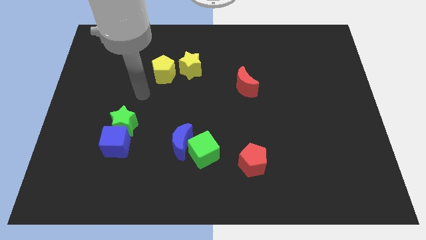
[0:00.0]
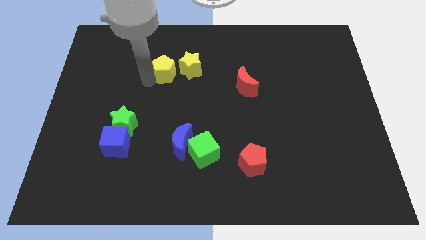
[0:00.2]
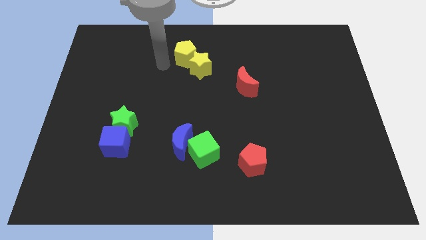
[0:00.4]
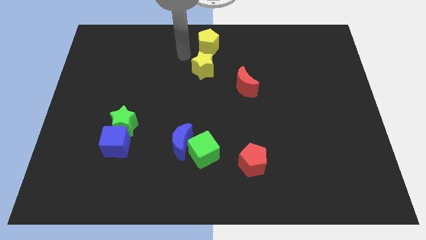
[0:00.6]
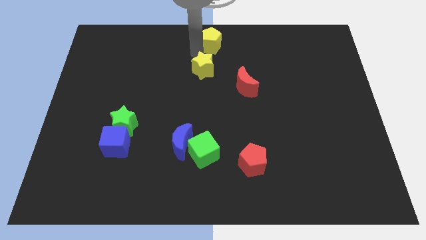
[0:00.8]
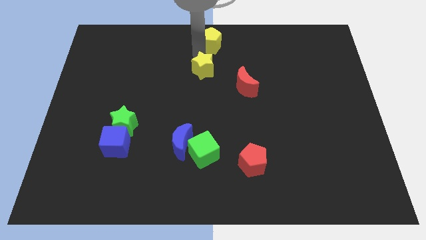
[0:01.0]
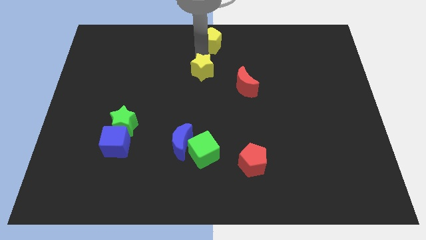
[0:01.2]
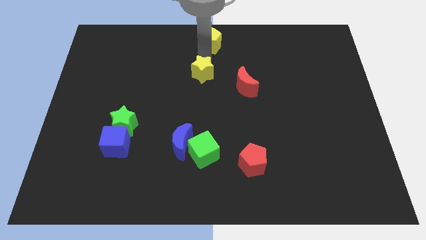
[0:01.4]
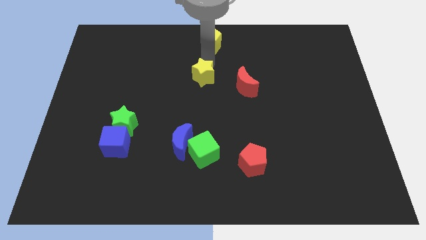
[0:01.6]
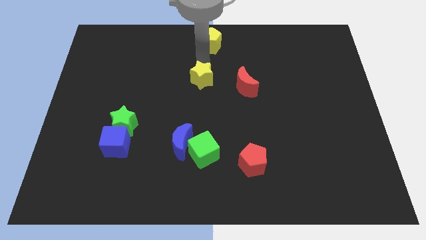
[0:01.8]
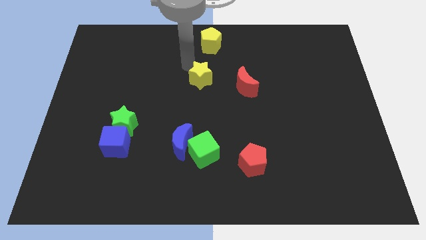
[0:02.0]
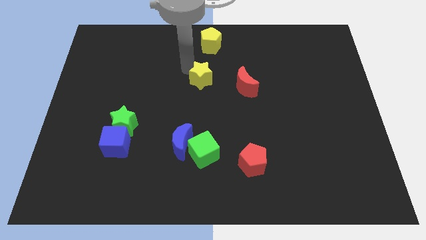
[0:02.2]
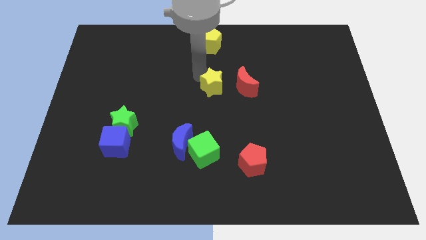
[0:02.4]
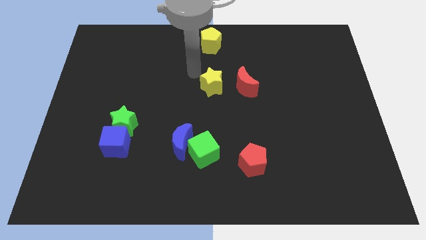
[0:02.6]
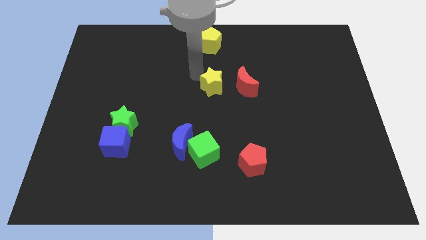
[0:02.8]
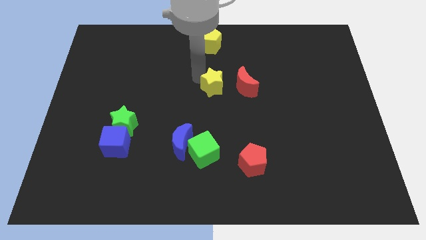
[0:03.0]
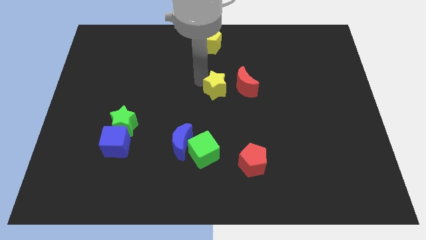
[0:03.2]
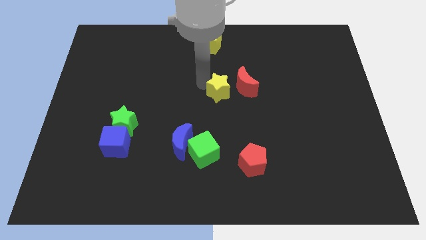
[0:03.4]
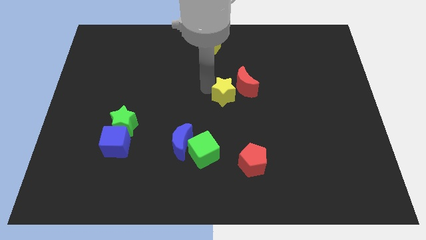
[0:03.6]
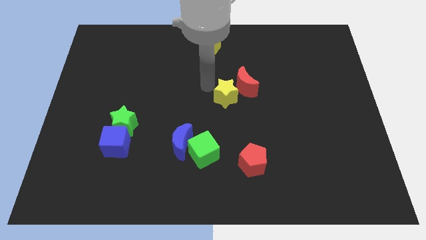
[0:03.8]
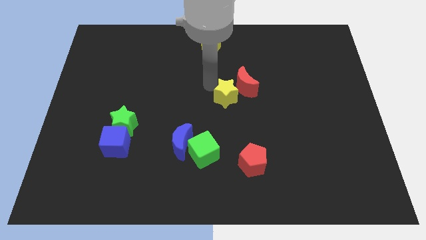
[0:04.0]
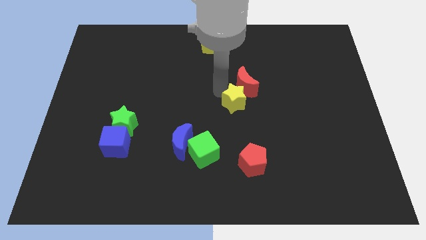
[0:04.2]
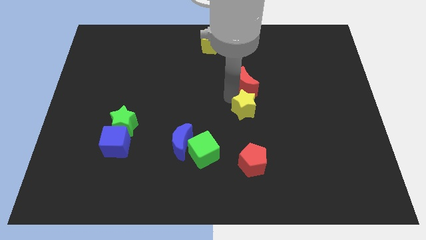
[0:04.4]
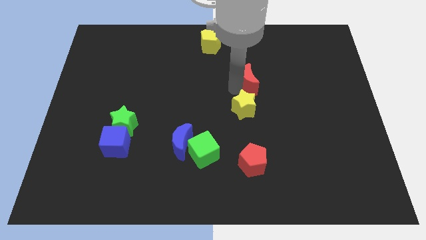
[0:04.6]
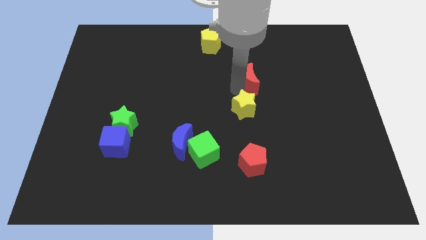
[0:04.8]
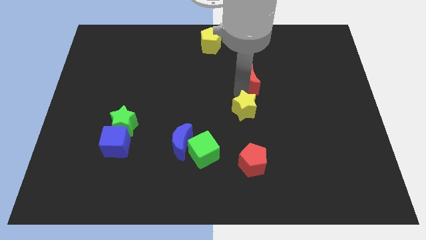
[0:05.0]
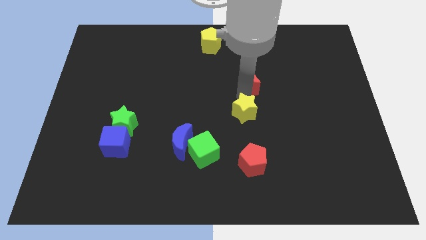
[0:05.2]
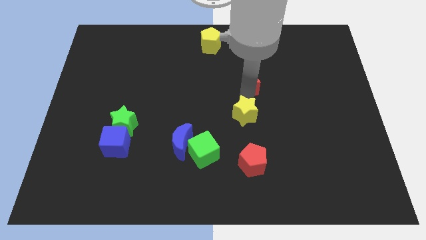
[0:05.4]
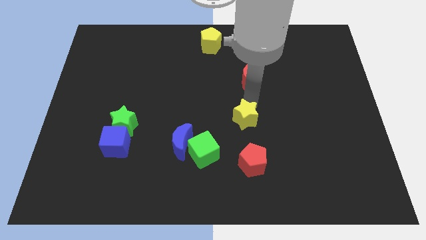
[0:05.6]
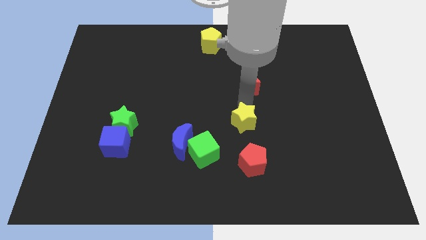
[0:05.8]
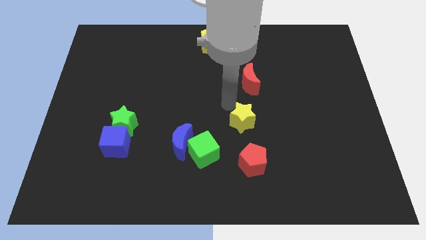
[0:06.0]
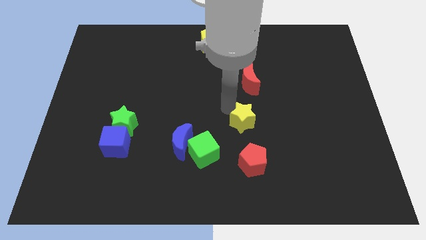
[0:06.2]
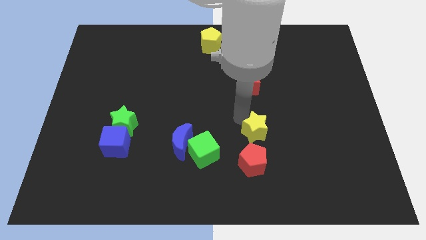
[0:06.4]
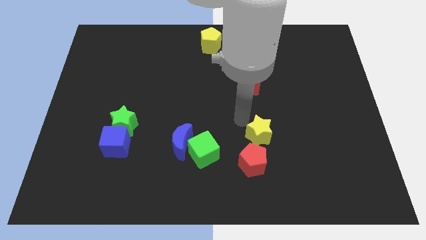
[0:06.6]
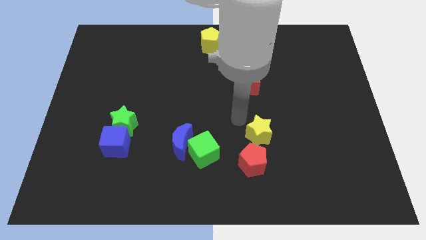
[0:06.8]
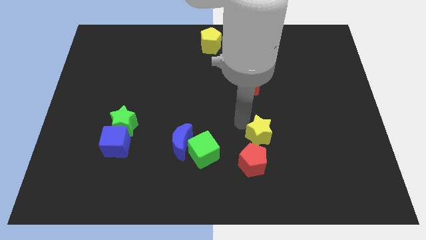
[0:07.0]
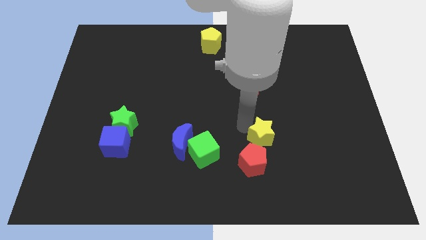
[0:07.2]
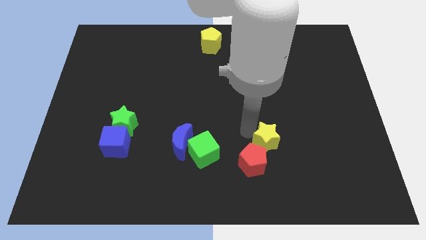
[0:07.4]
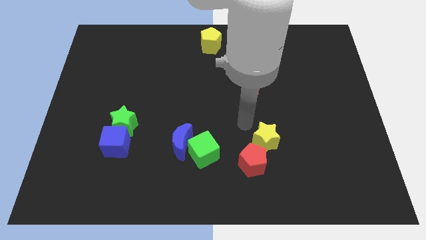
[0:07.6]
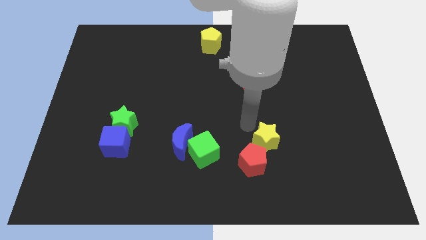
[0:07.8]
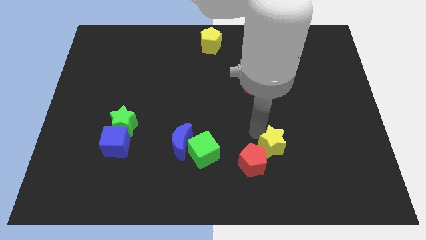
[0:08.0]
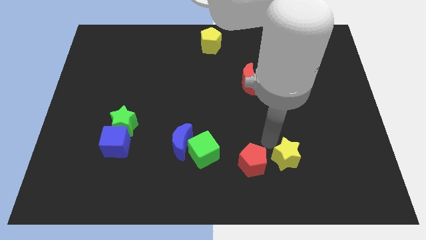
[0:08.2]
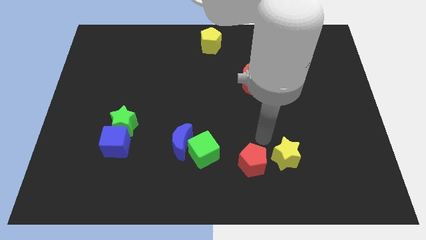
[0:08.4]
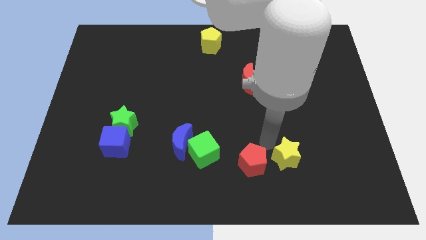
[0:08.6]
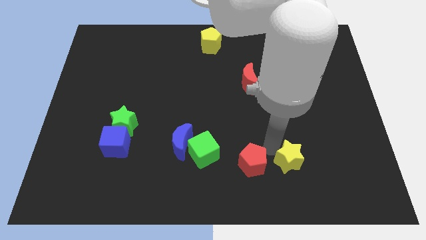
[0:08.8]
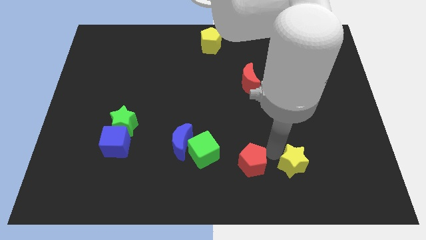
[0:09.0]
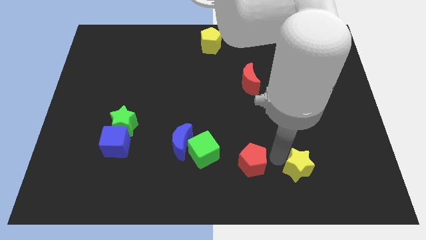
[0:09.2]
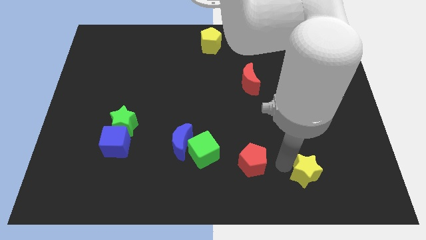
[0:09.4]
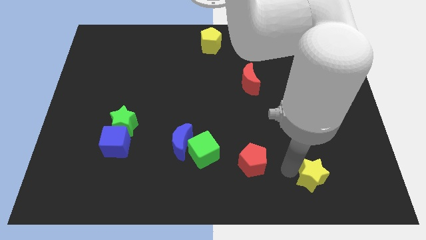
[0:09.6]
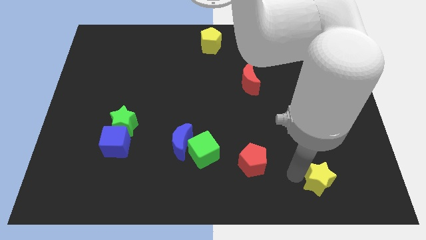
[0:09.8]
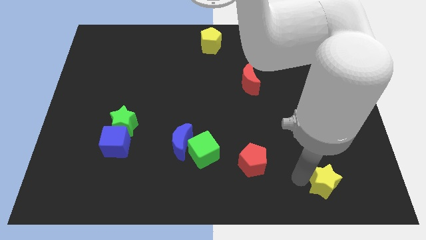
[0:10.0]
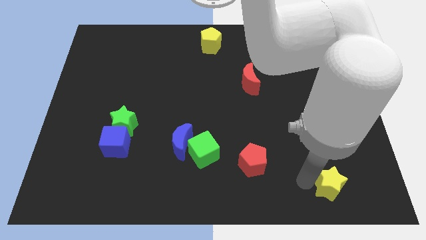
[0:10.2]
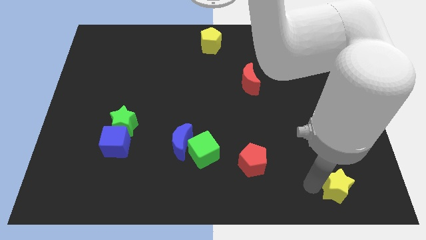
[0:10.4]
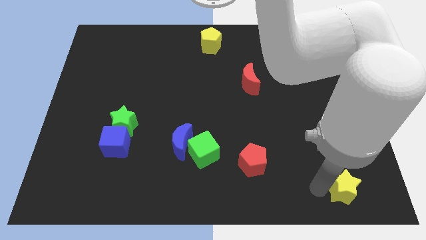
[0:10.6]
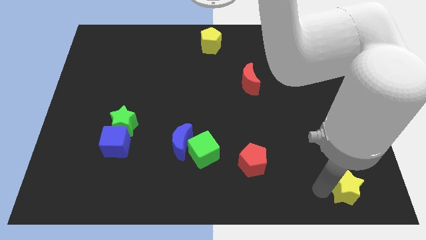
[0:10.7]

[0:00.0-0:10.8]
push the yellow star to the bottom right of the board

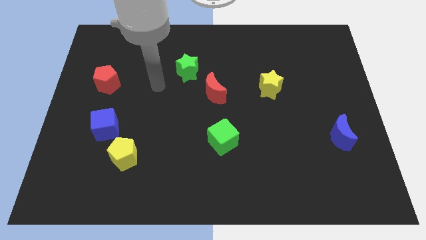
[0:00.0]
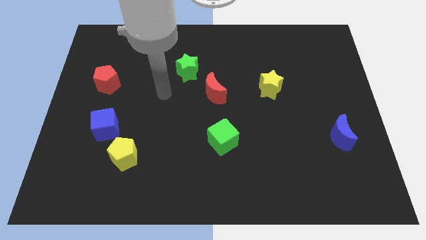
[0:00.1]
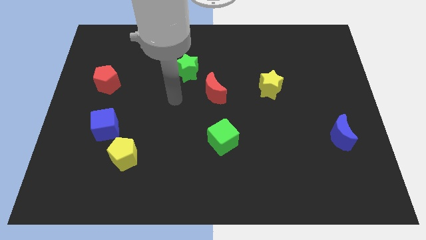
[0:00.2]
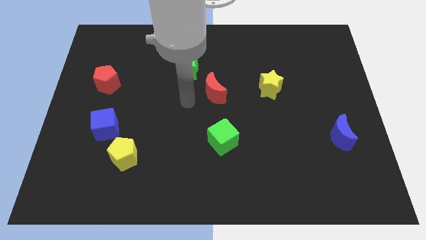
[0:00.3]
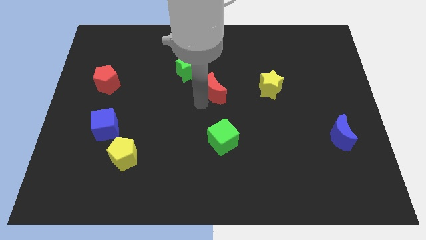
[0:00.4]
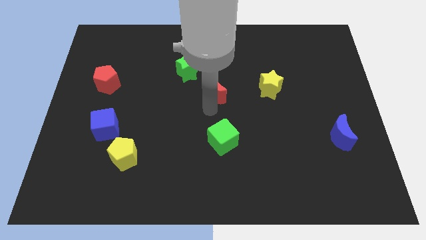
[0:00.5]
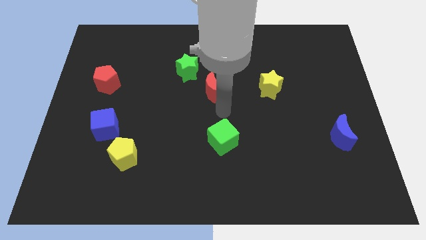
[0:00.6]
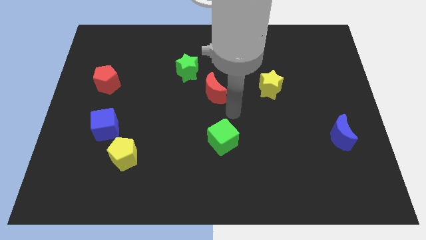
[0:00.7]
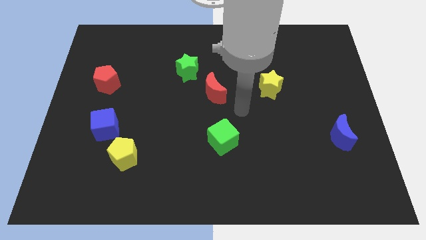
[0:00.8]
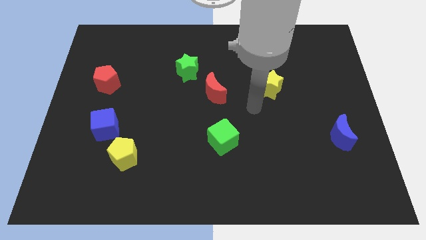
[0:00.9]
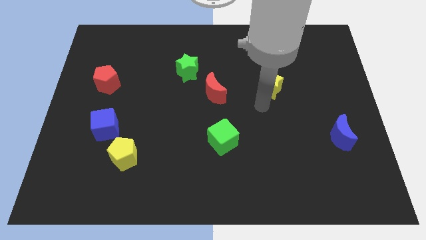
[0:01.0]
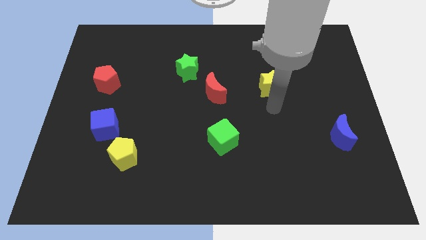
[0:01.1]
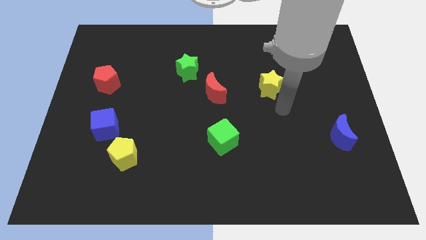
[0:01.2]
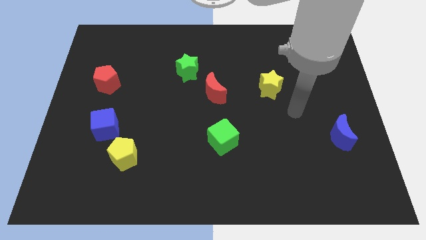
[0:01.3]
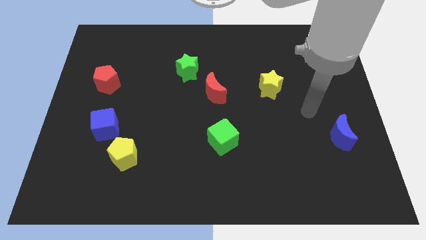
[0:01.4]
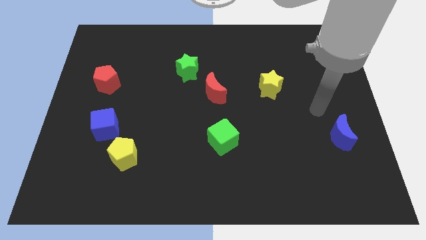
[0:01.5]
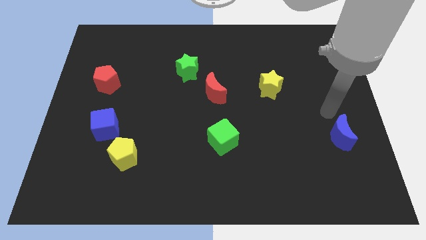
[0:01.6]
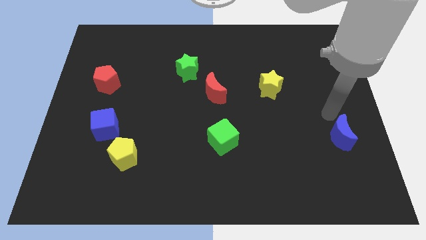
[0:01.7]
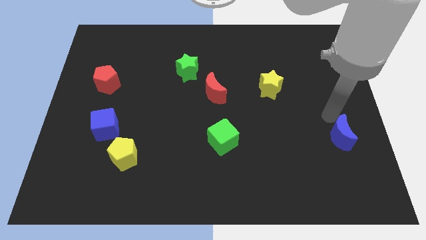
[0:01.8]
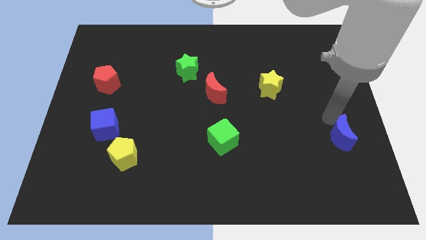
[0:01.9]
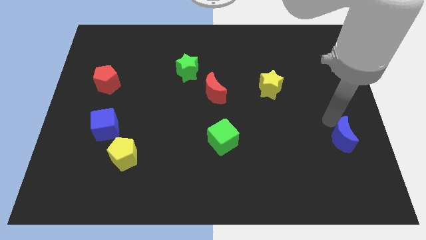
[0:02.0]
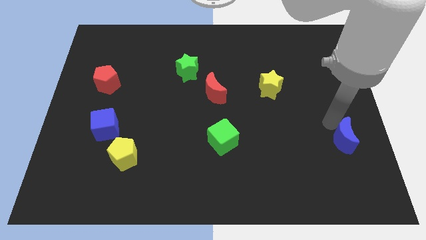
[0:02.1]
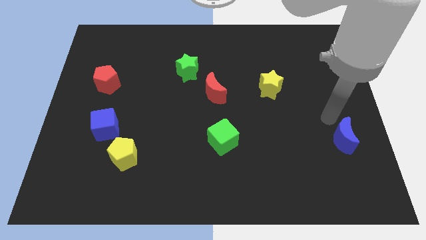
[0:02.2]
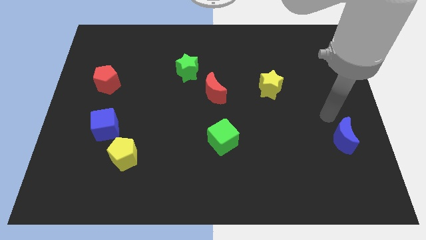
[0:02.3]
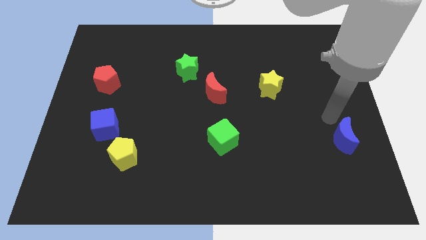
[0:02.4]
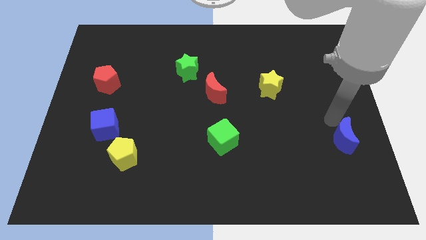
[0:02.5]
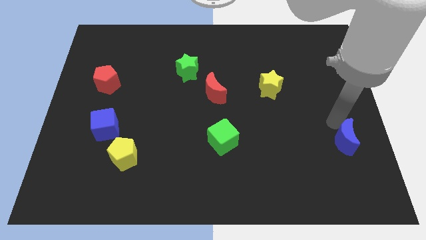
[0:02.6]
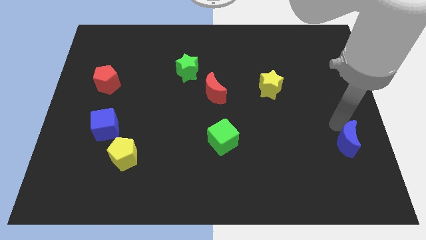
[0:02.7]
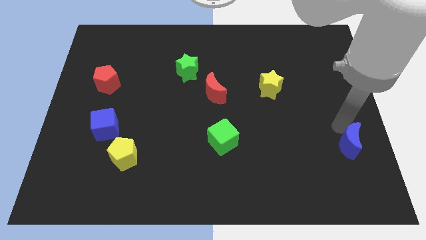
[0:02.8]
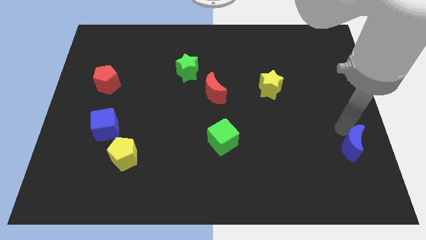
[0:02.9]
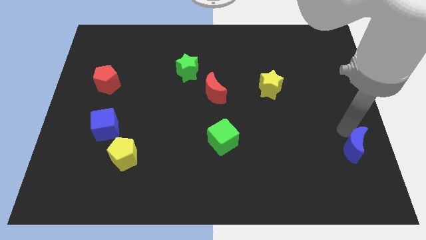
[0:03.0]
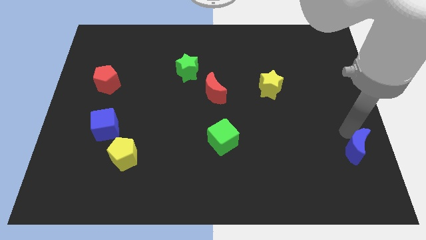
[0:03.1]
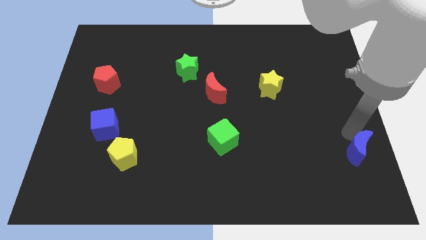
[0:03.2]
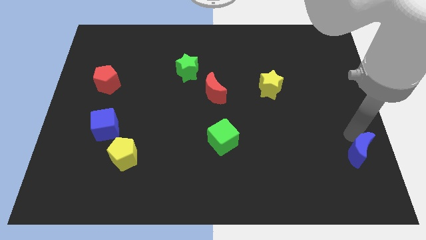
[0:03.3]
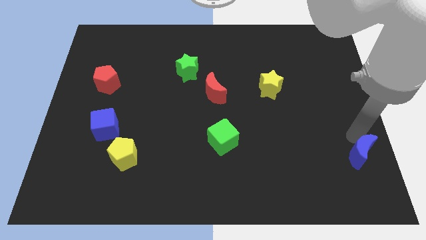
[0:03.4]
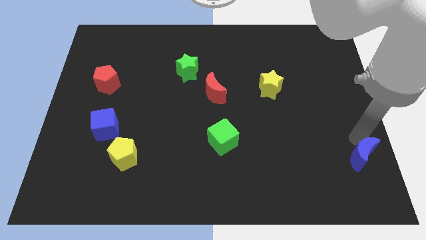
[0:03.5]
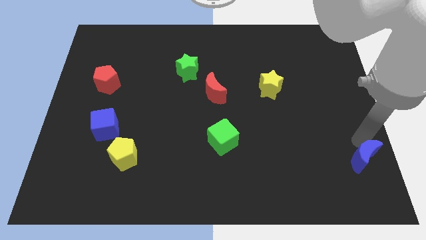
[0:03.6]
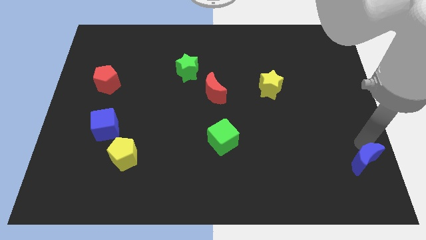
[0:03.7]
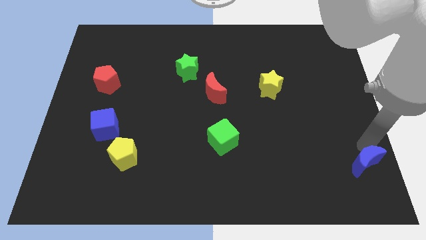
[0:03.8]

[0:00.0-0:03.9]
push the blue moon to the bottom right of the board
